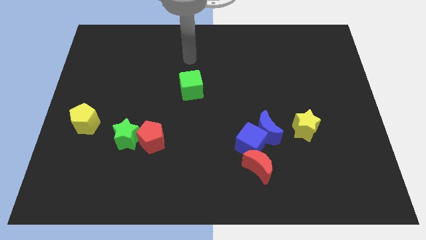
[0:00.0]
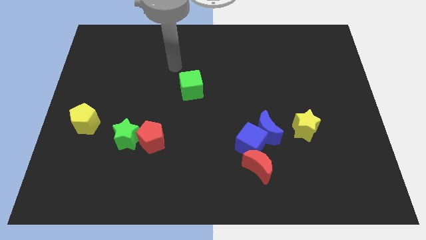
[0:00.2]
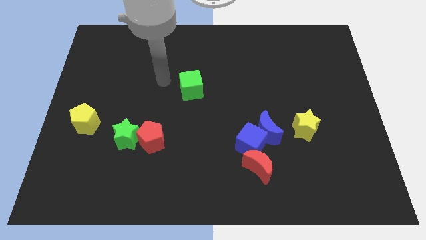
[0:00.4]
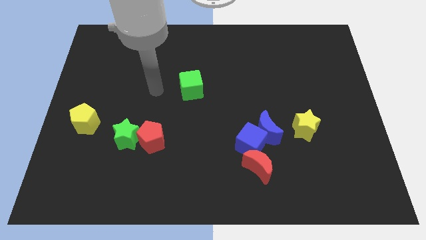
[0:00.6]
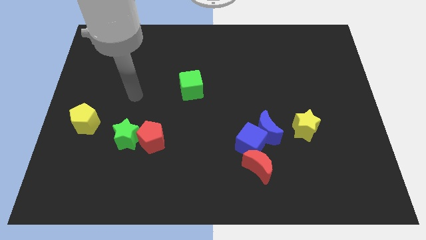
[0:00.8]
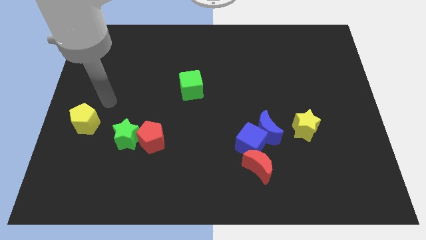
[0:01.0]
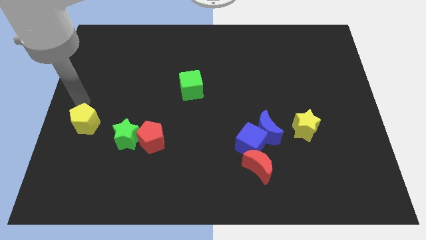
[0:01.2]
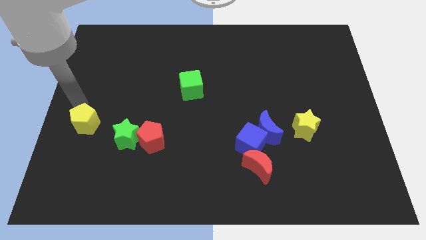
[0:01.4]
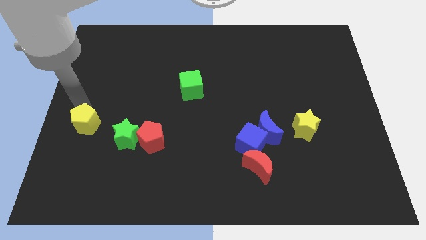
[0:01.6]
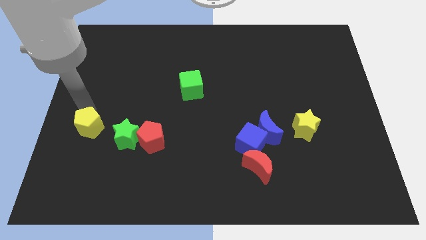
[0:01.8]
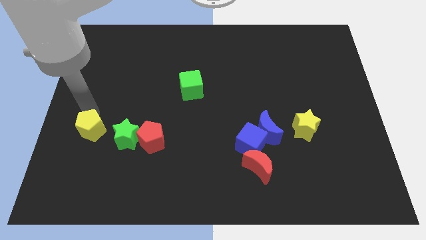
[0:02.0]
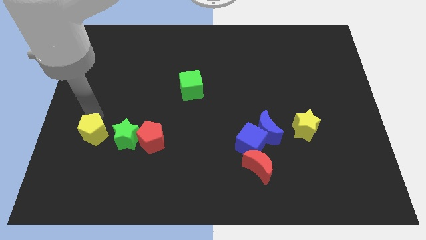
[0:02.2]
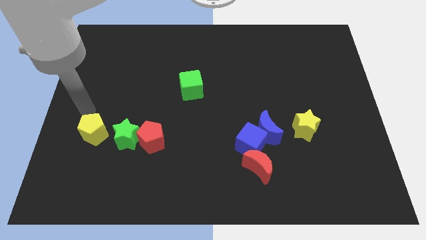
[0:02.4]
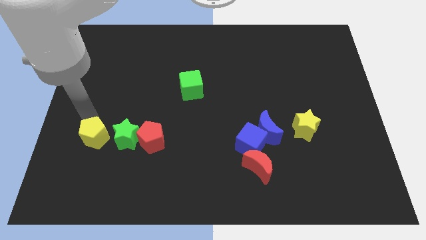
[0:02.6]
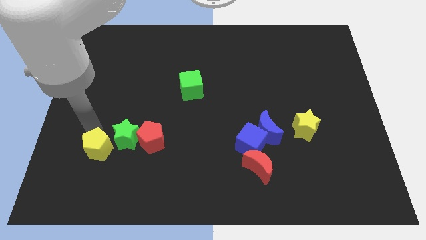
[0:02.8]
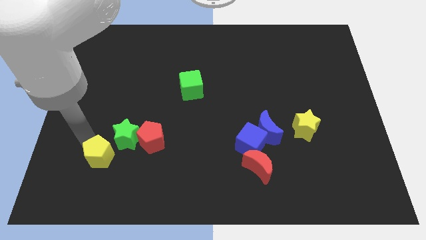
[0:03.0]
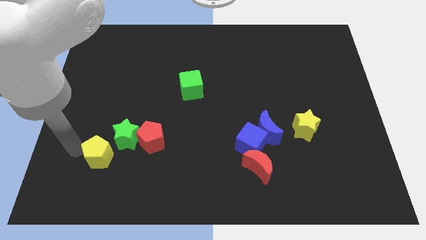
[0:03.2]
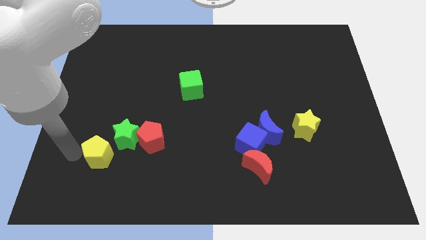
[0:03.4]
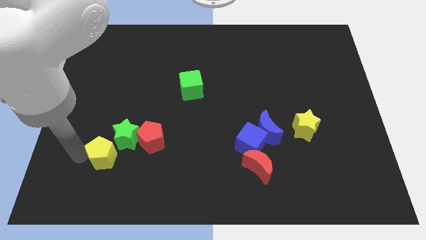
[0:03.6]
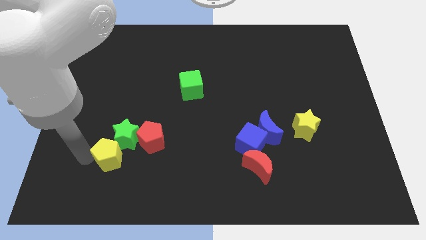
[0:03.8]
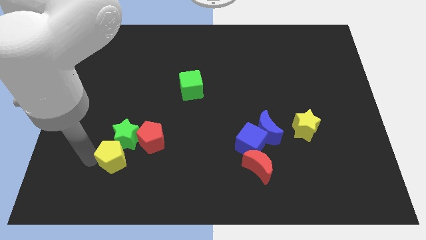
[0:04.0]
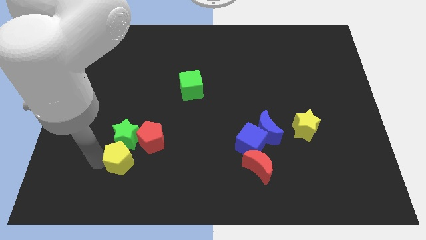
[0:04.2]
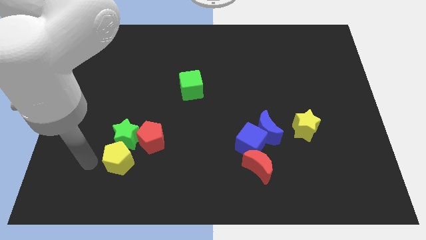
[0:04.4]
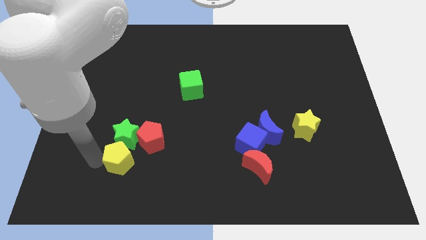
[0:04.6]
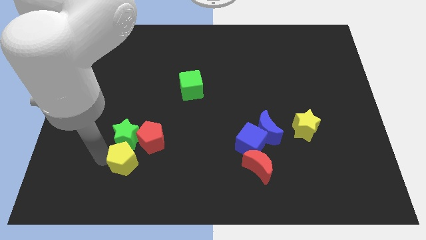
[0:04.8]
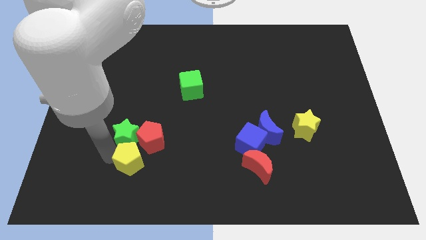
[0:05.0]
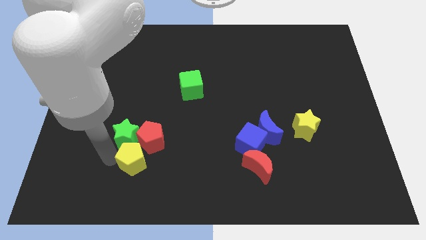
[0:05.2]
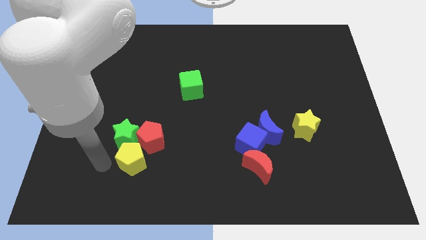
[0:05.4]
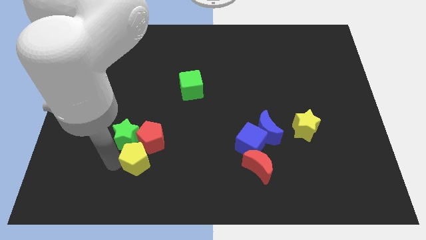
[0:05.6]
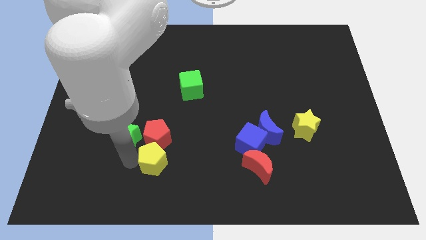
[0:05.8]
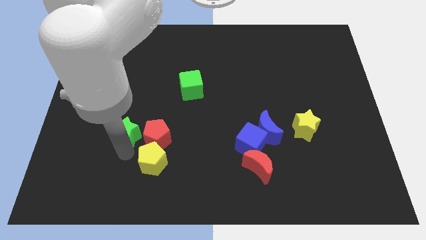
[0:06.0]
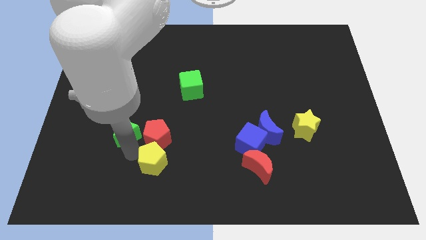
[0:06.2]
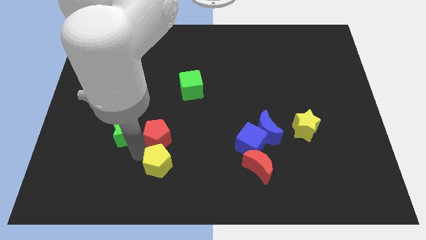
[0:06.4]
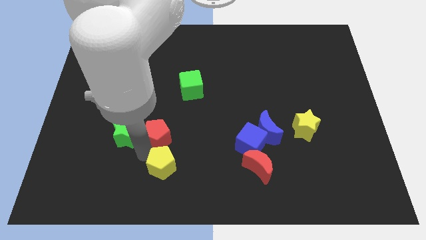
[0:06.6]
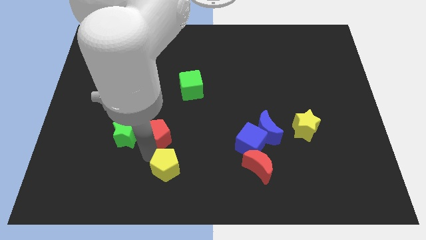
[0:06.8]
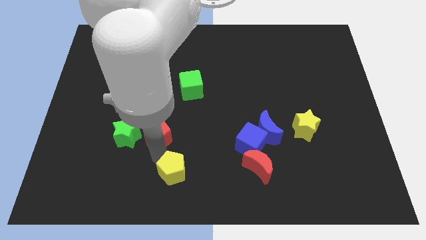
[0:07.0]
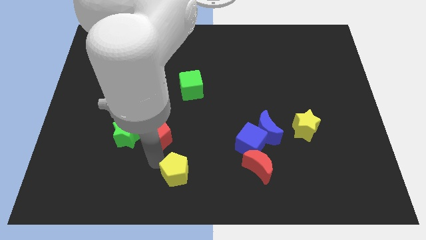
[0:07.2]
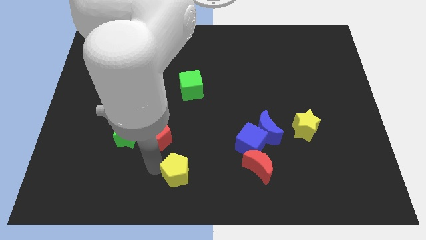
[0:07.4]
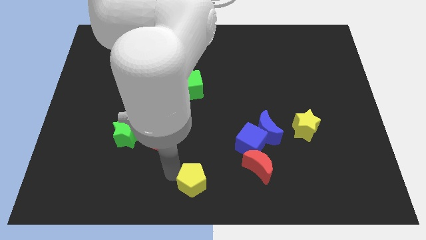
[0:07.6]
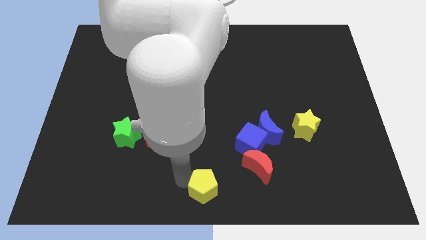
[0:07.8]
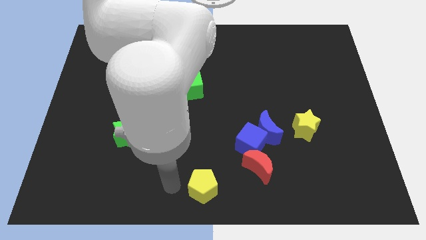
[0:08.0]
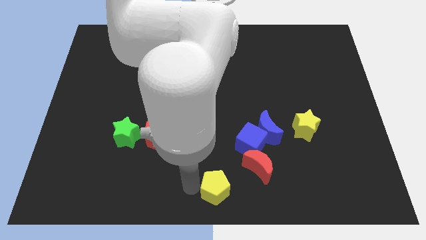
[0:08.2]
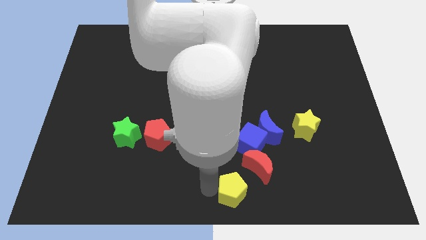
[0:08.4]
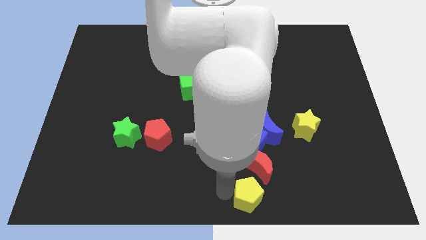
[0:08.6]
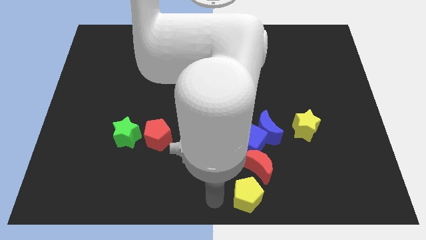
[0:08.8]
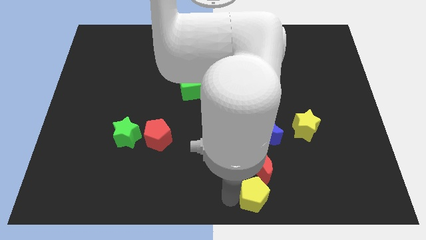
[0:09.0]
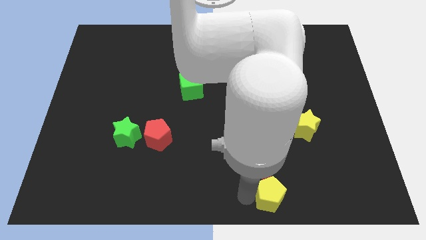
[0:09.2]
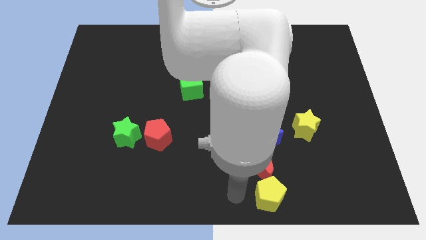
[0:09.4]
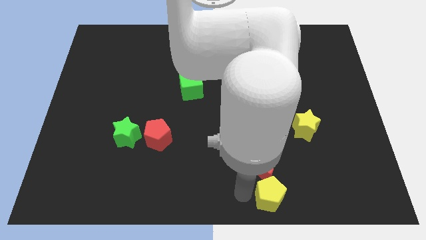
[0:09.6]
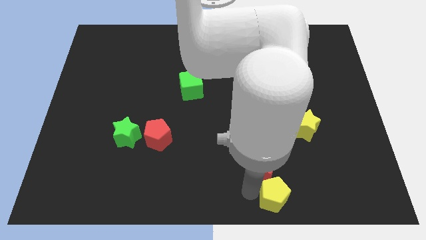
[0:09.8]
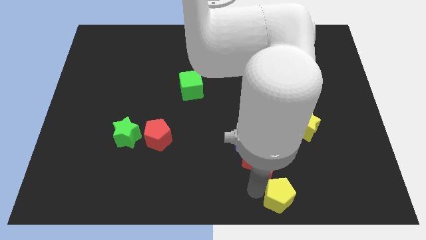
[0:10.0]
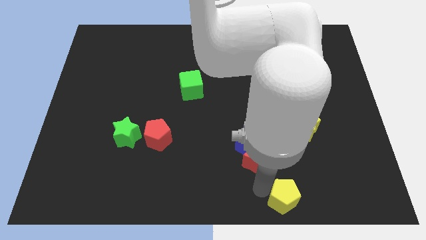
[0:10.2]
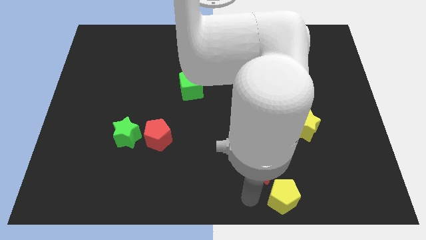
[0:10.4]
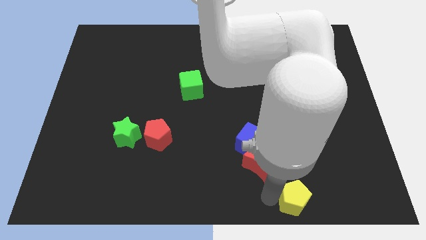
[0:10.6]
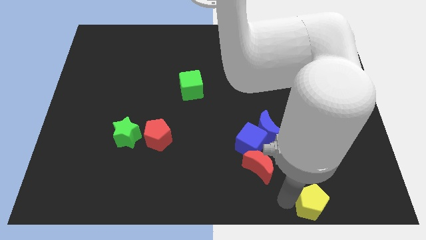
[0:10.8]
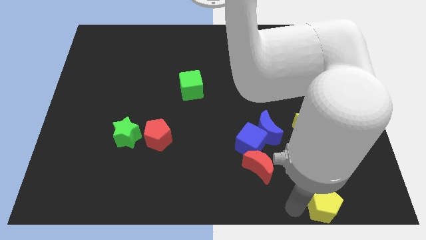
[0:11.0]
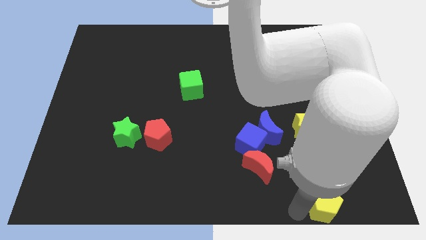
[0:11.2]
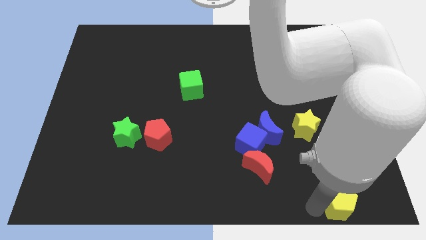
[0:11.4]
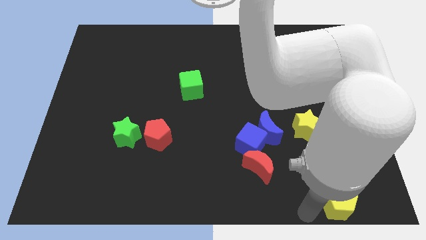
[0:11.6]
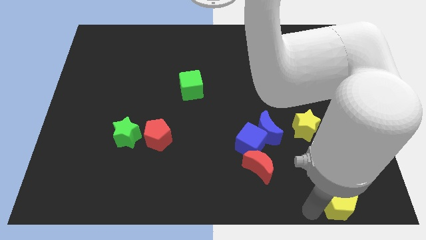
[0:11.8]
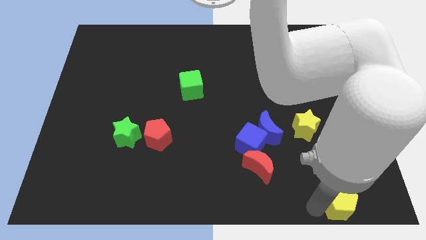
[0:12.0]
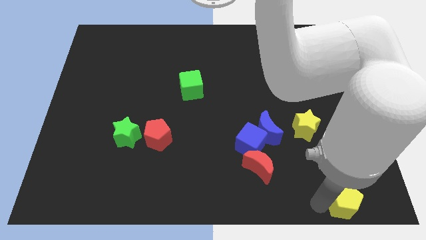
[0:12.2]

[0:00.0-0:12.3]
put the yellow pentagon to the bottom right corner
